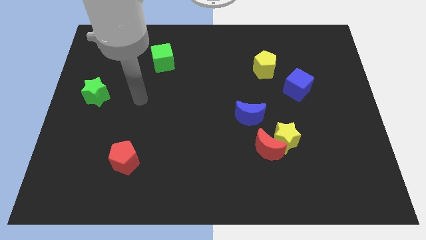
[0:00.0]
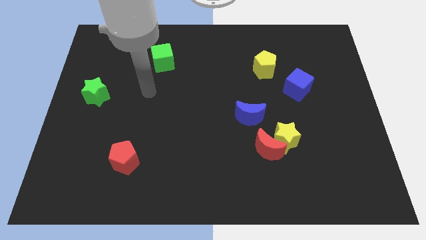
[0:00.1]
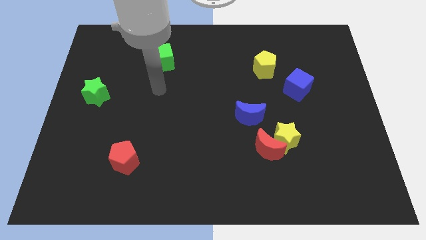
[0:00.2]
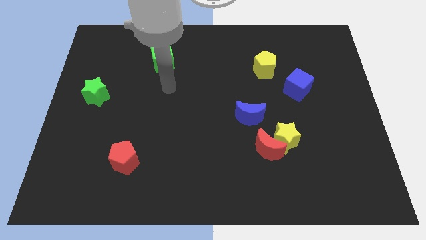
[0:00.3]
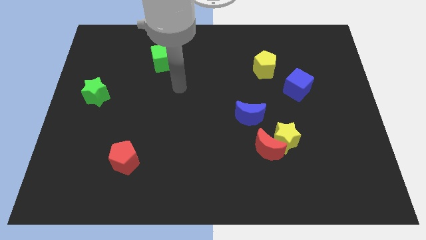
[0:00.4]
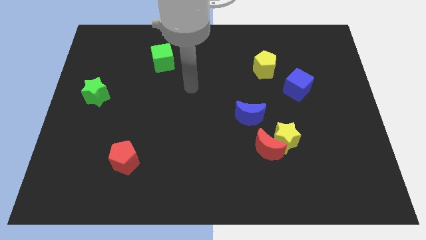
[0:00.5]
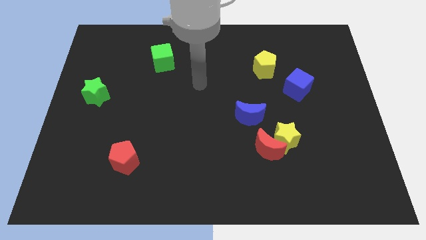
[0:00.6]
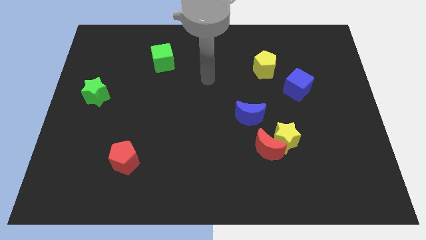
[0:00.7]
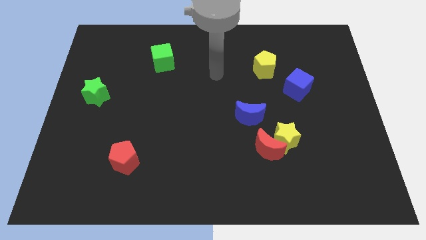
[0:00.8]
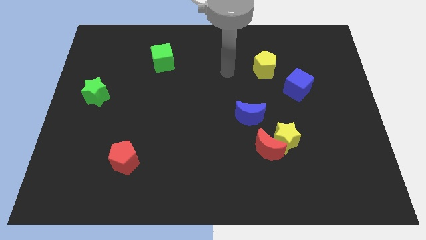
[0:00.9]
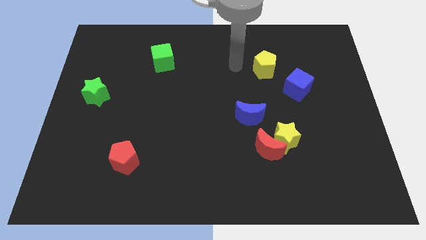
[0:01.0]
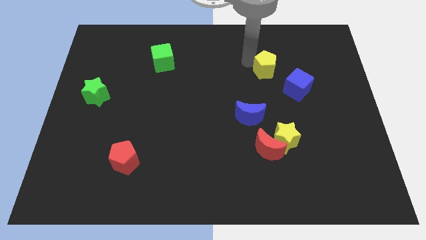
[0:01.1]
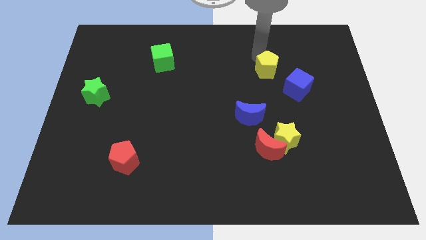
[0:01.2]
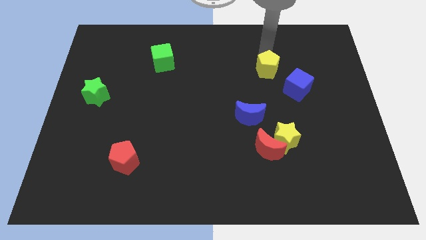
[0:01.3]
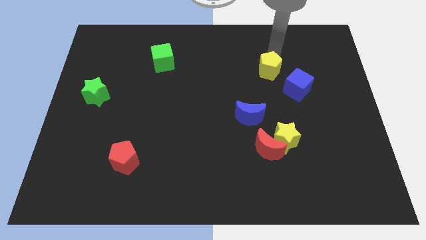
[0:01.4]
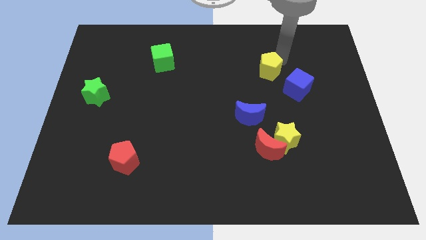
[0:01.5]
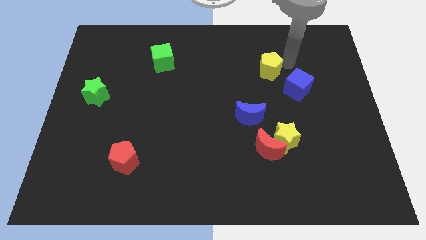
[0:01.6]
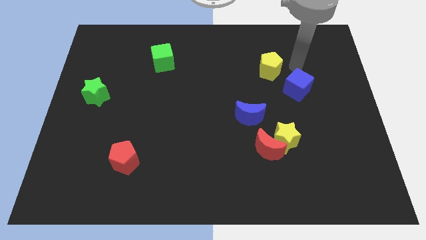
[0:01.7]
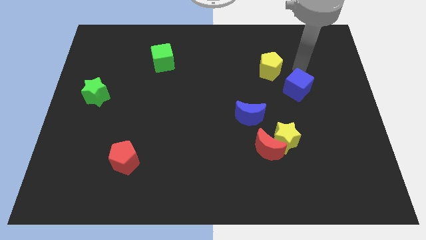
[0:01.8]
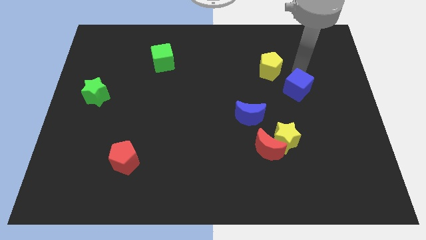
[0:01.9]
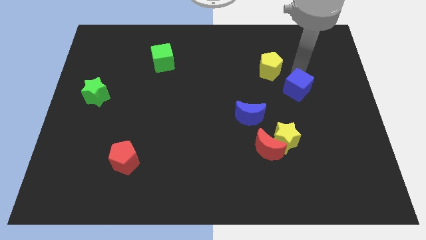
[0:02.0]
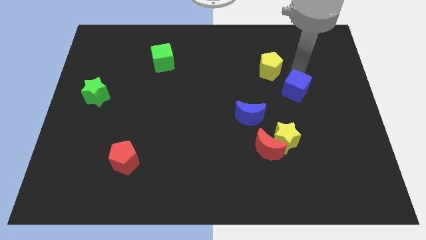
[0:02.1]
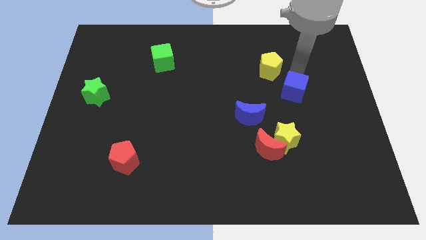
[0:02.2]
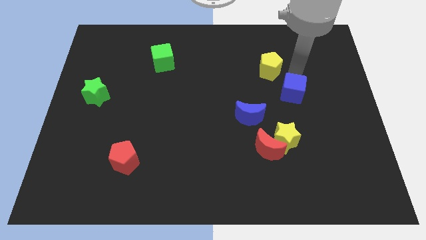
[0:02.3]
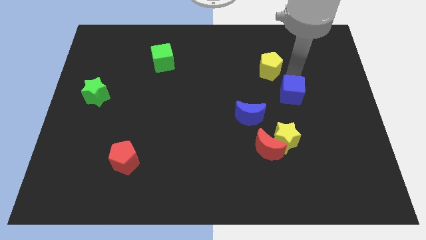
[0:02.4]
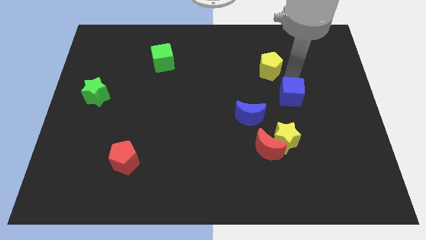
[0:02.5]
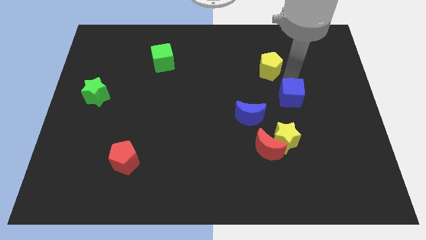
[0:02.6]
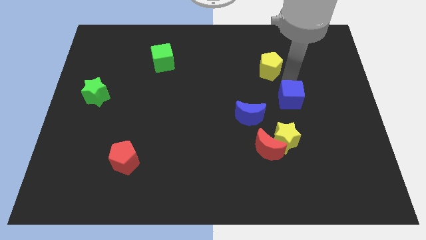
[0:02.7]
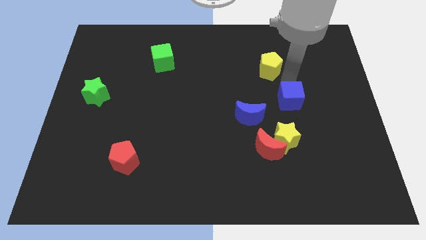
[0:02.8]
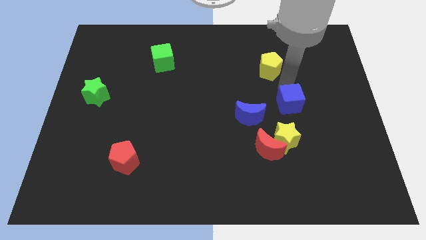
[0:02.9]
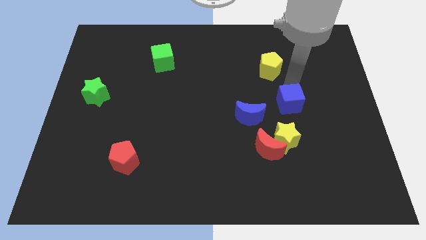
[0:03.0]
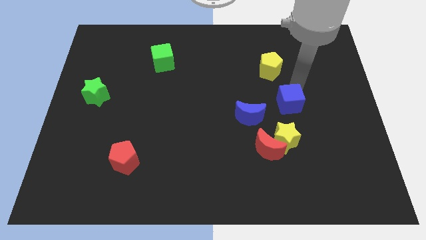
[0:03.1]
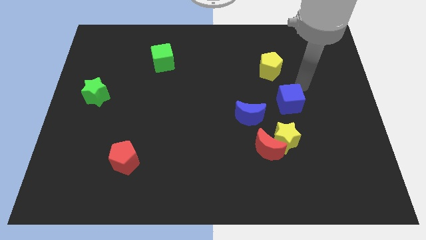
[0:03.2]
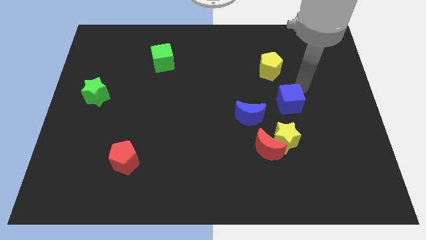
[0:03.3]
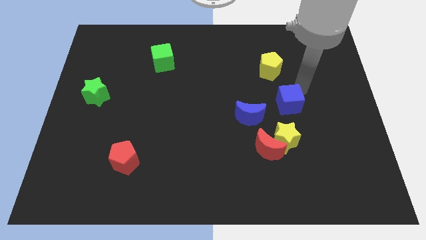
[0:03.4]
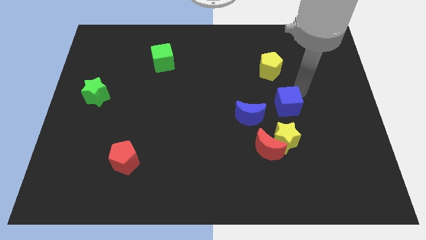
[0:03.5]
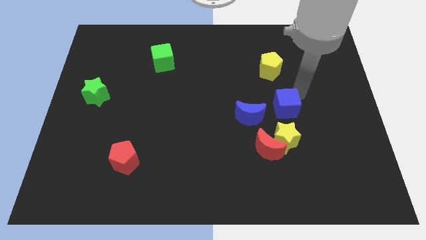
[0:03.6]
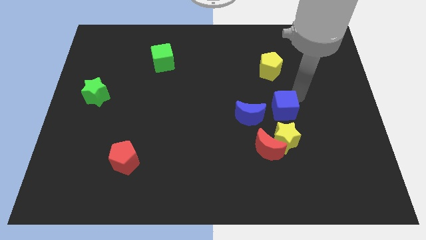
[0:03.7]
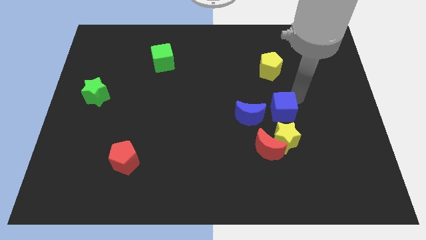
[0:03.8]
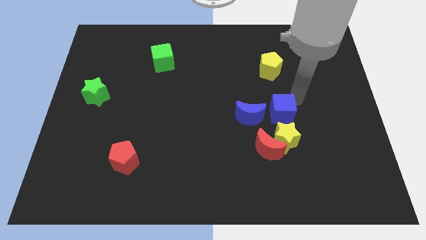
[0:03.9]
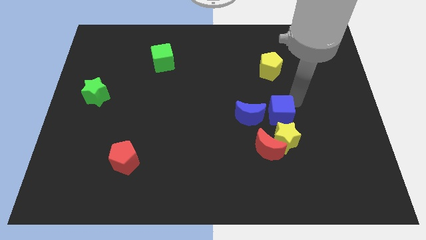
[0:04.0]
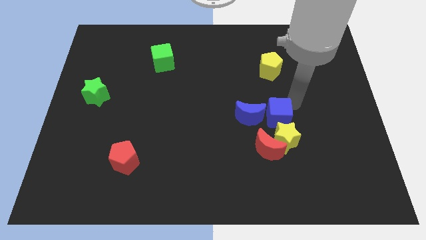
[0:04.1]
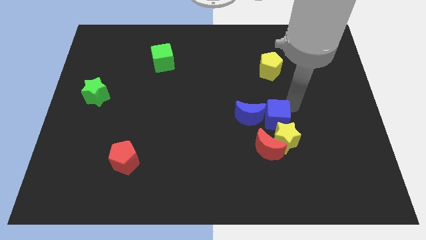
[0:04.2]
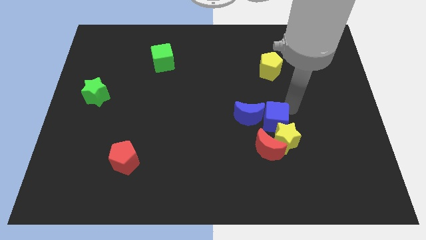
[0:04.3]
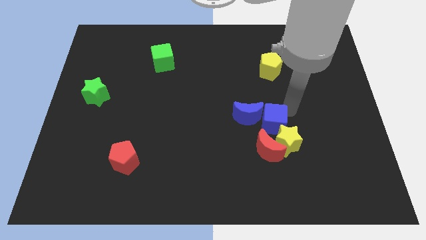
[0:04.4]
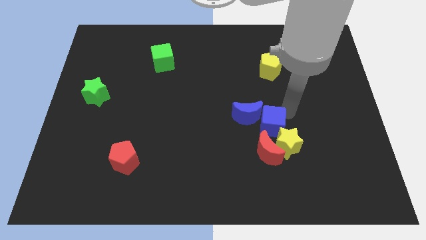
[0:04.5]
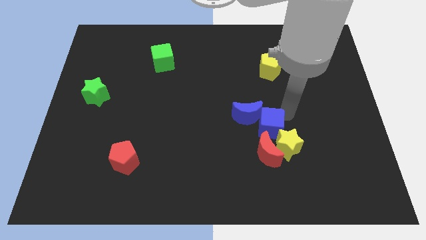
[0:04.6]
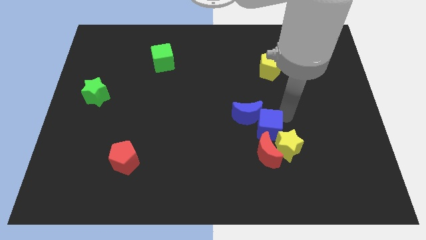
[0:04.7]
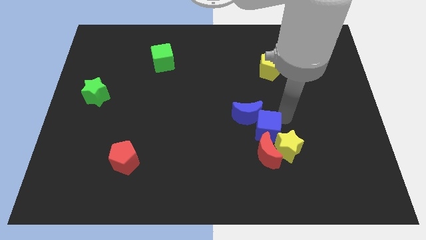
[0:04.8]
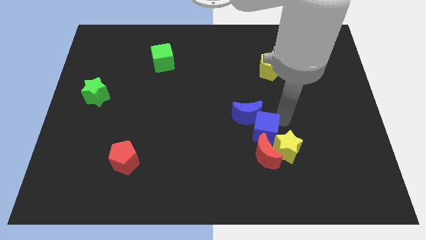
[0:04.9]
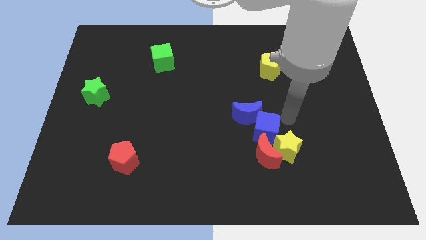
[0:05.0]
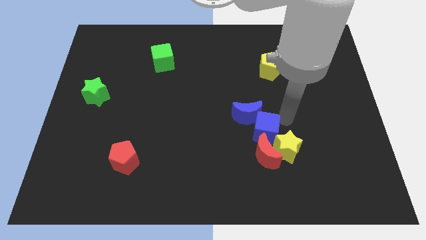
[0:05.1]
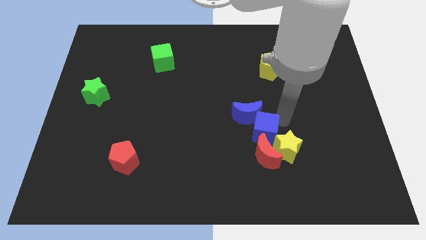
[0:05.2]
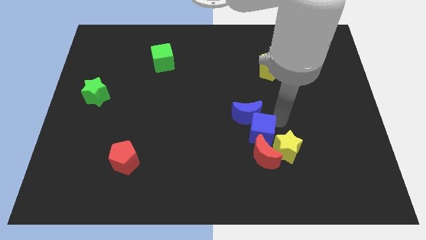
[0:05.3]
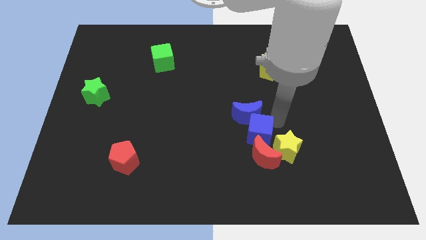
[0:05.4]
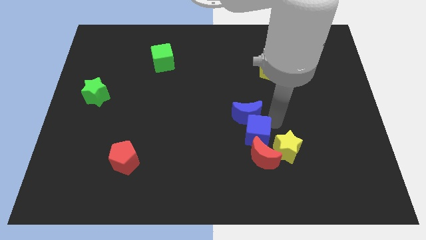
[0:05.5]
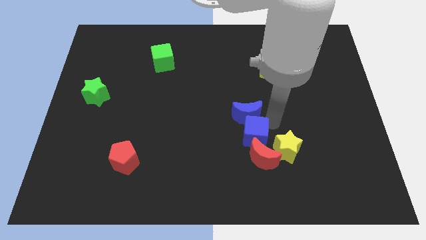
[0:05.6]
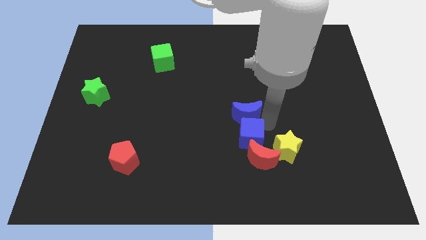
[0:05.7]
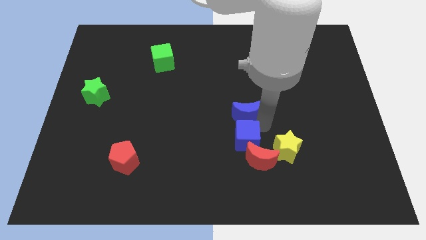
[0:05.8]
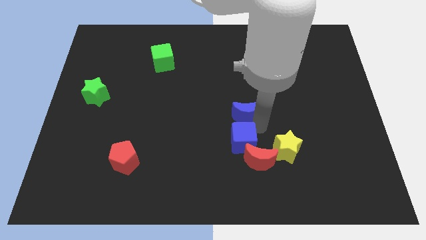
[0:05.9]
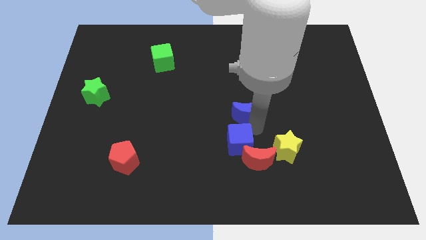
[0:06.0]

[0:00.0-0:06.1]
move the blue cube just left of the red moon

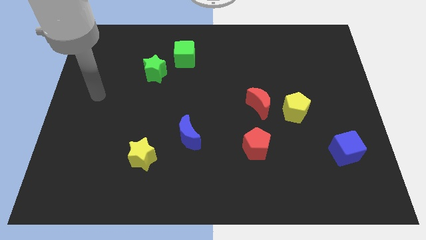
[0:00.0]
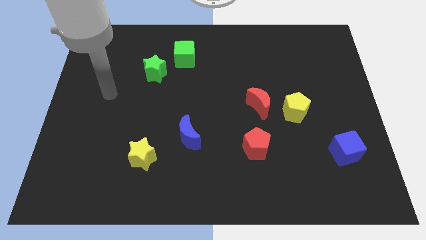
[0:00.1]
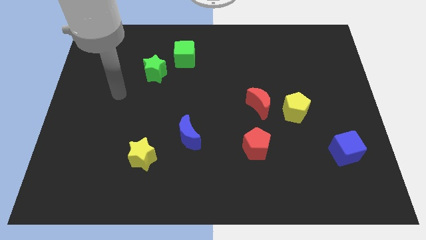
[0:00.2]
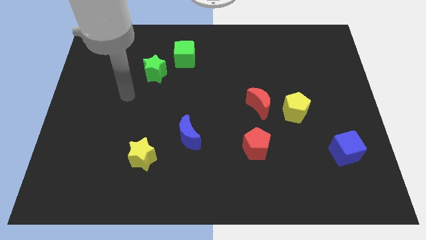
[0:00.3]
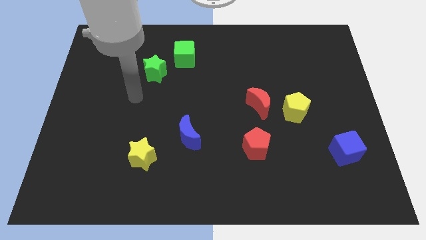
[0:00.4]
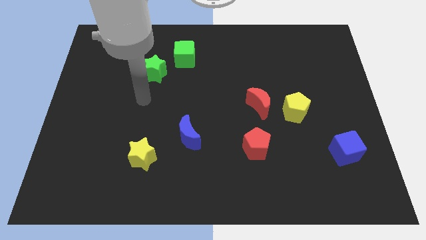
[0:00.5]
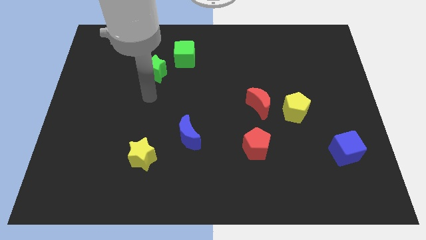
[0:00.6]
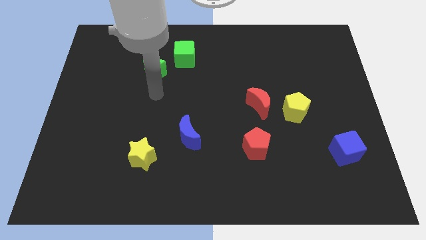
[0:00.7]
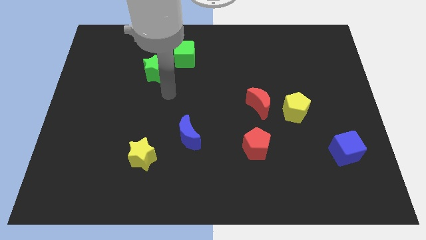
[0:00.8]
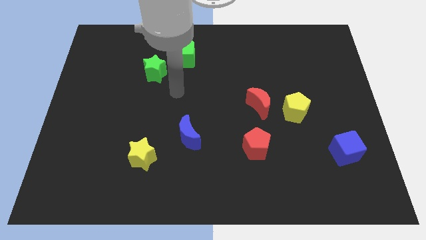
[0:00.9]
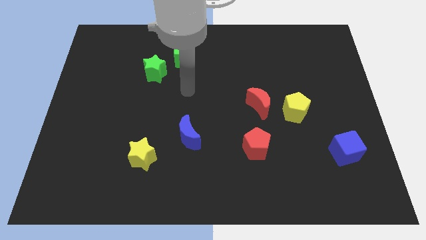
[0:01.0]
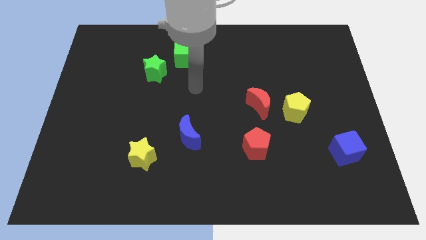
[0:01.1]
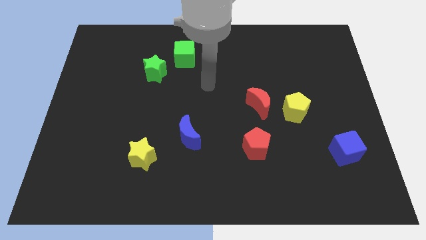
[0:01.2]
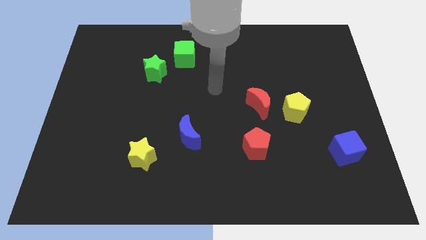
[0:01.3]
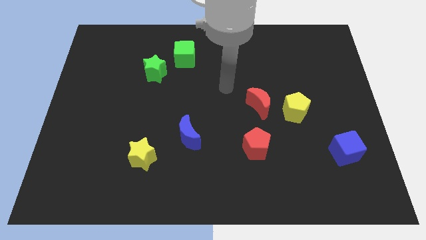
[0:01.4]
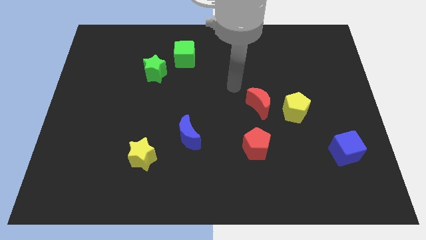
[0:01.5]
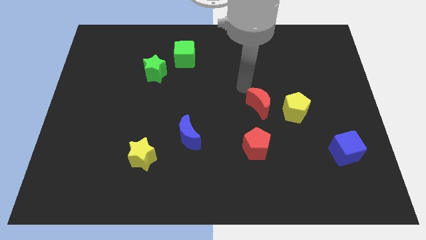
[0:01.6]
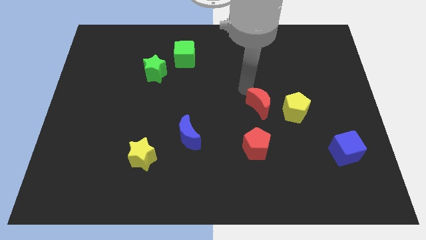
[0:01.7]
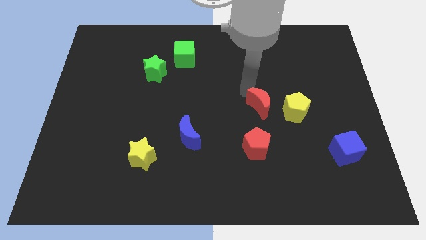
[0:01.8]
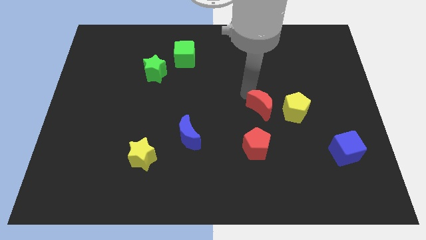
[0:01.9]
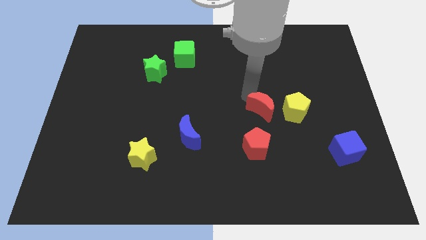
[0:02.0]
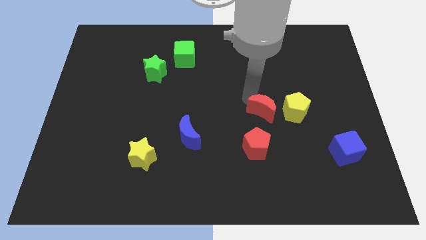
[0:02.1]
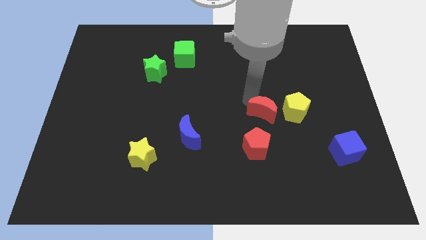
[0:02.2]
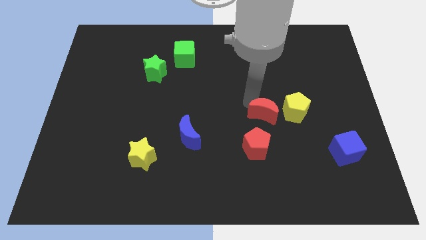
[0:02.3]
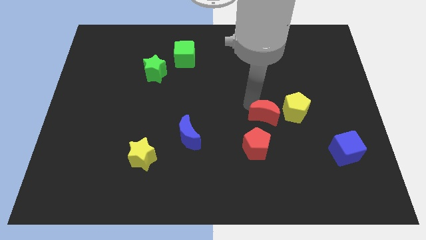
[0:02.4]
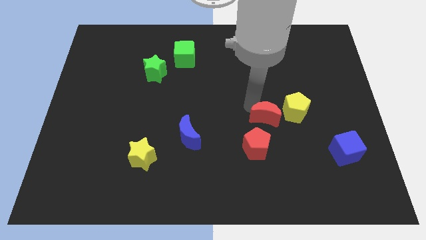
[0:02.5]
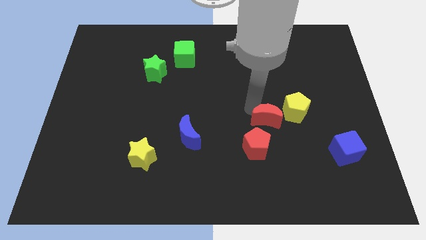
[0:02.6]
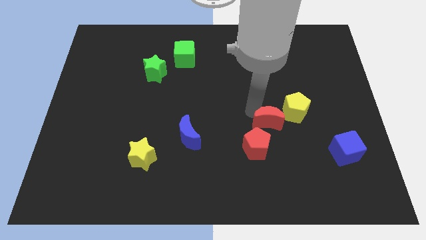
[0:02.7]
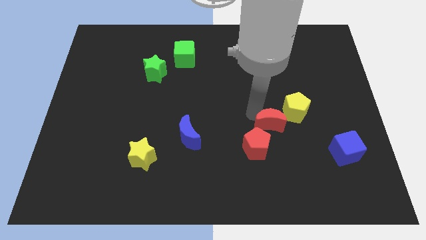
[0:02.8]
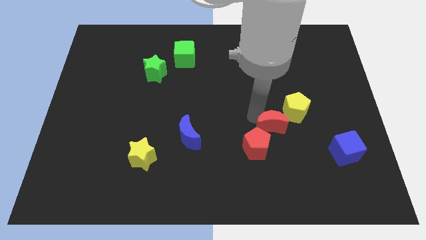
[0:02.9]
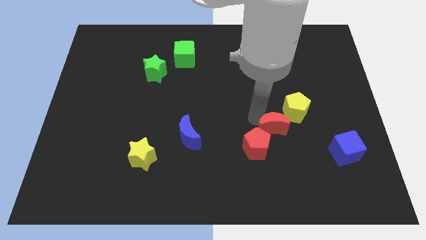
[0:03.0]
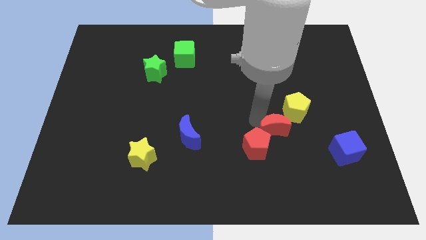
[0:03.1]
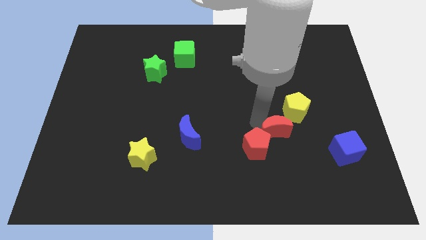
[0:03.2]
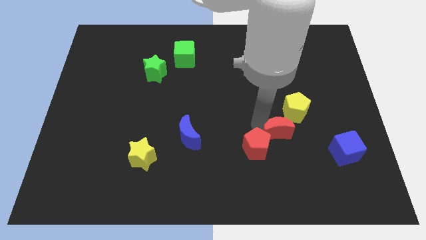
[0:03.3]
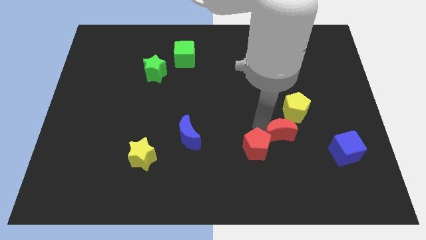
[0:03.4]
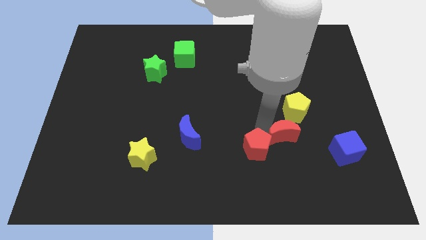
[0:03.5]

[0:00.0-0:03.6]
put the red moon to the left side of the blue cube
